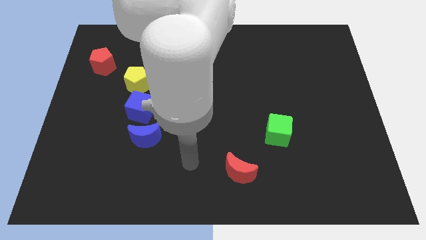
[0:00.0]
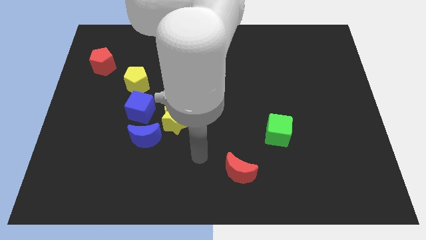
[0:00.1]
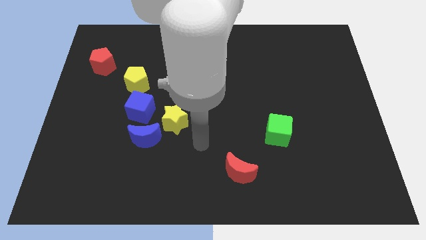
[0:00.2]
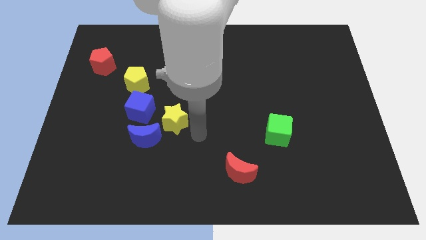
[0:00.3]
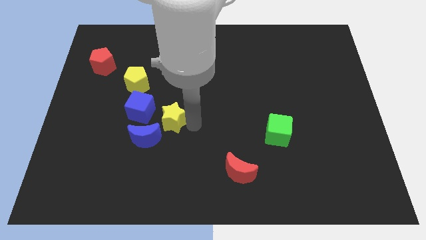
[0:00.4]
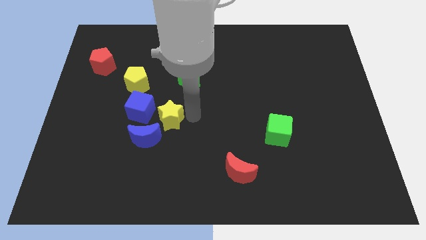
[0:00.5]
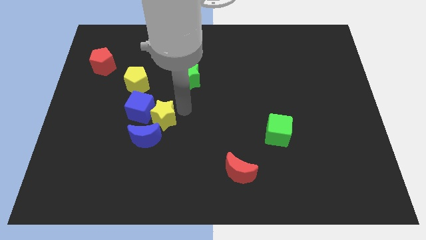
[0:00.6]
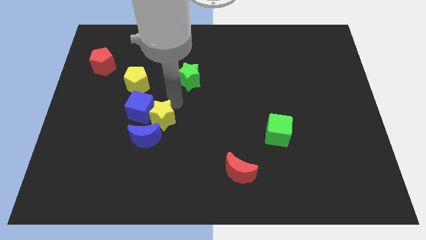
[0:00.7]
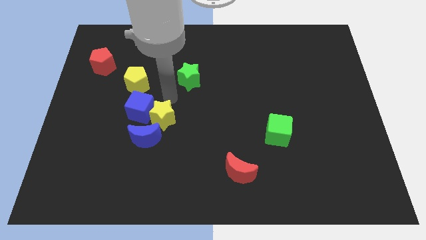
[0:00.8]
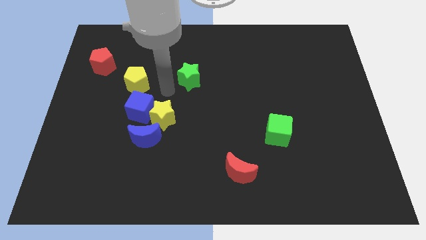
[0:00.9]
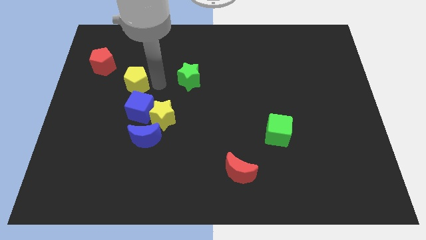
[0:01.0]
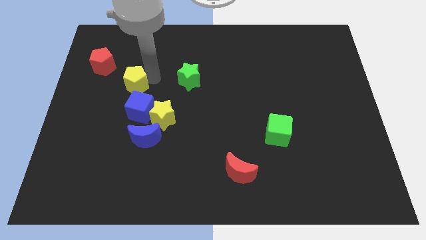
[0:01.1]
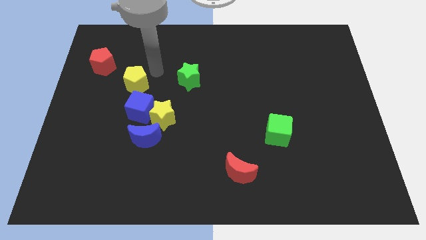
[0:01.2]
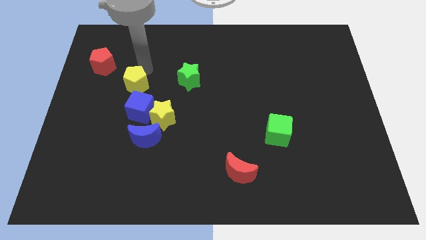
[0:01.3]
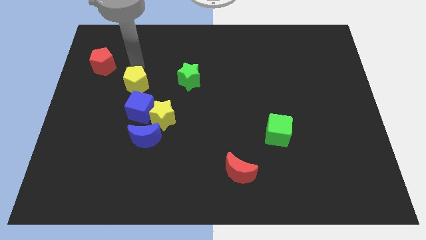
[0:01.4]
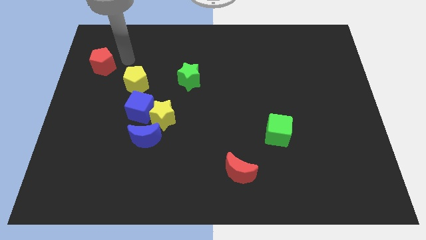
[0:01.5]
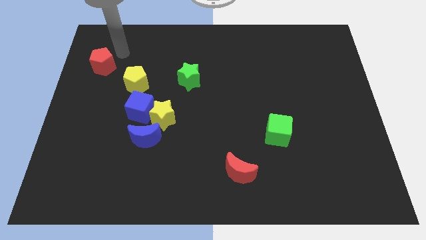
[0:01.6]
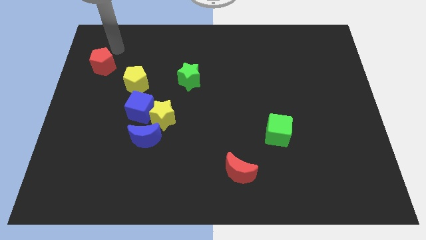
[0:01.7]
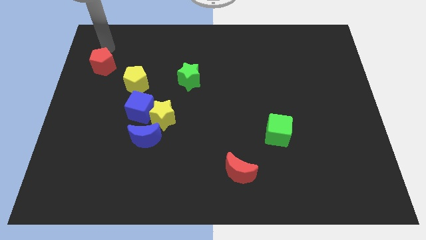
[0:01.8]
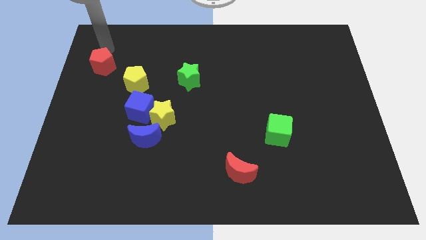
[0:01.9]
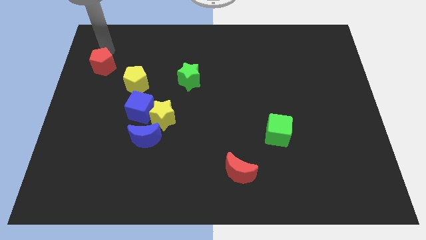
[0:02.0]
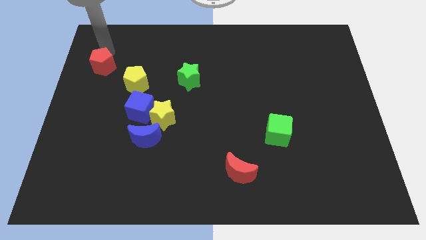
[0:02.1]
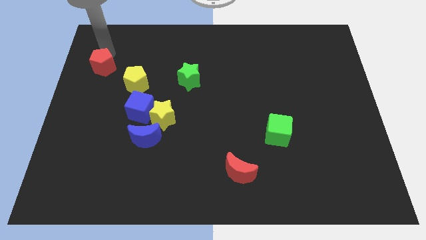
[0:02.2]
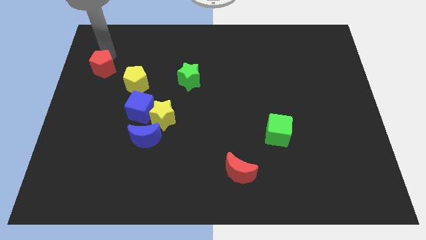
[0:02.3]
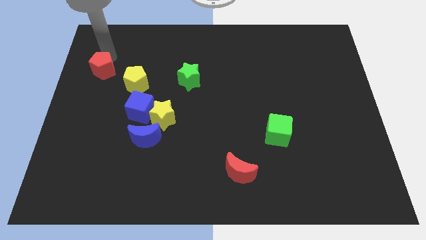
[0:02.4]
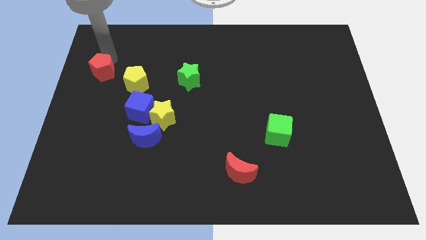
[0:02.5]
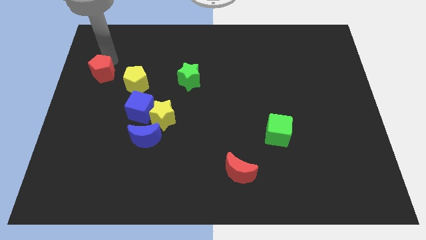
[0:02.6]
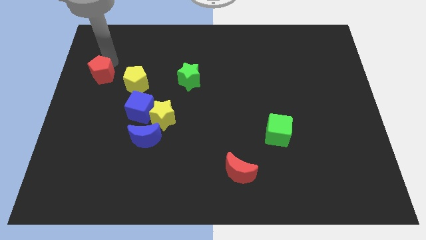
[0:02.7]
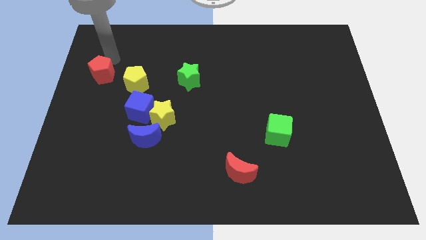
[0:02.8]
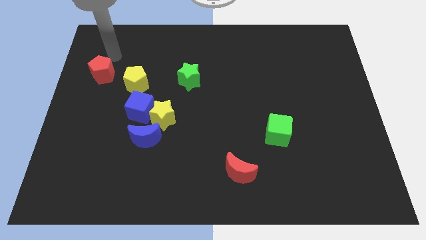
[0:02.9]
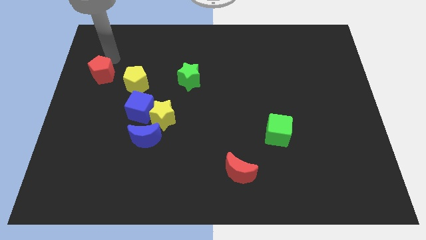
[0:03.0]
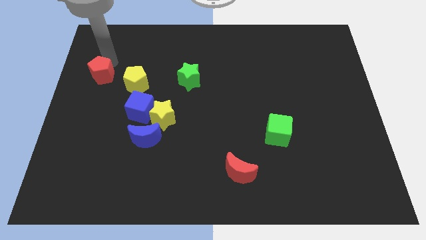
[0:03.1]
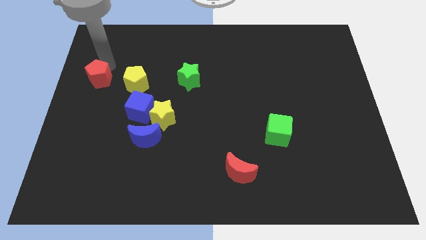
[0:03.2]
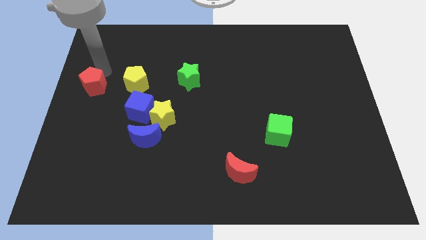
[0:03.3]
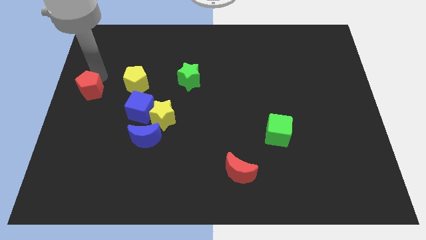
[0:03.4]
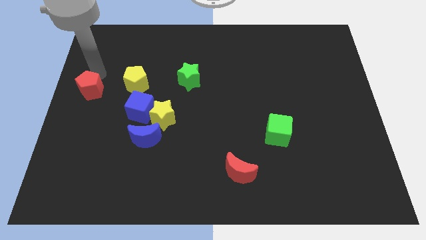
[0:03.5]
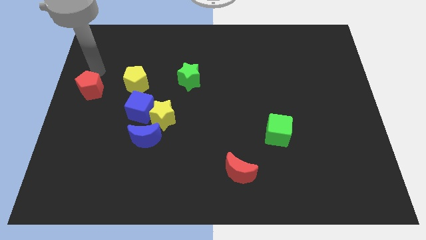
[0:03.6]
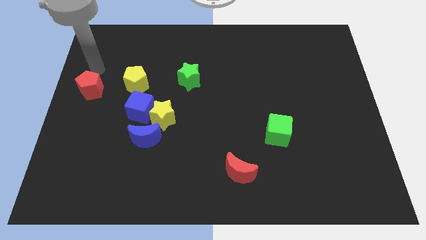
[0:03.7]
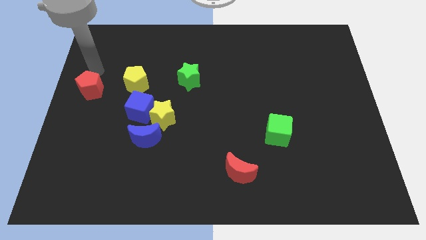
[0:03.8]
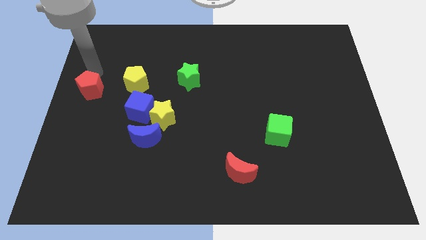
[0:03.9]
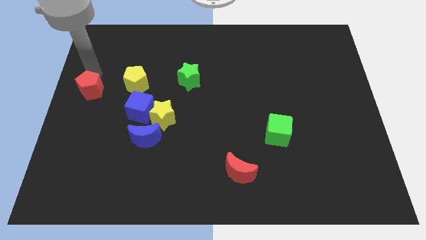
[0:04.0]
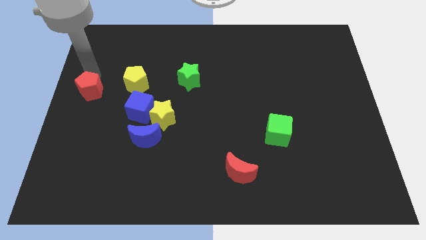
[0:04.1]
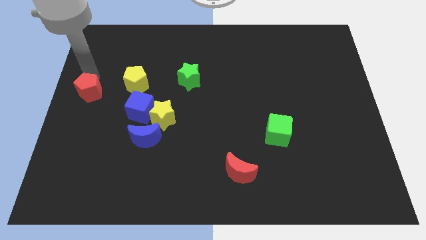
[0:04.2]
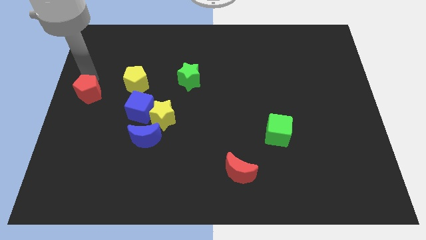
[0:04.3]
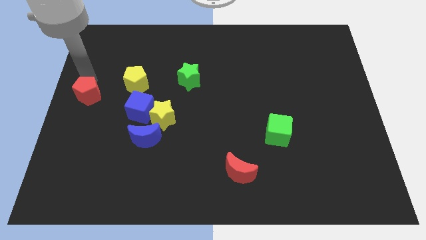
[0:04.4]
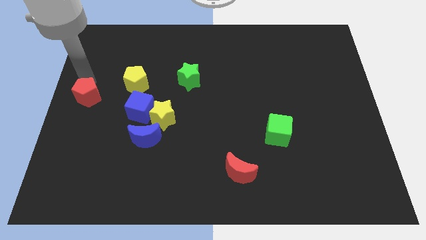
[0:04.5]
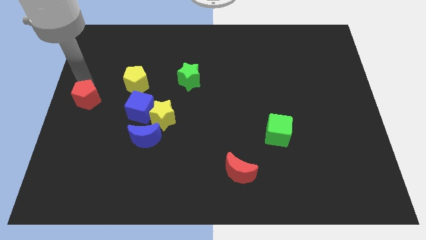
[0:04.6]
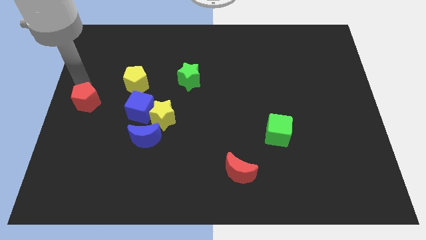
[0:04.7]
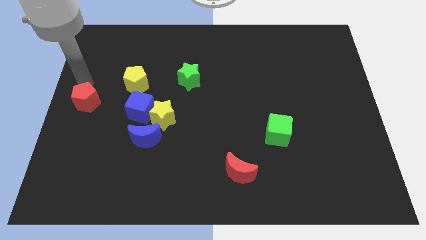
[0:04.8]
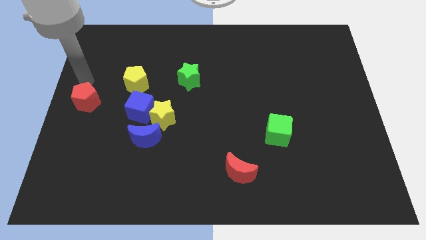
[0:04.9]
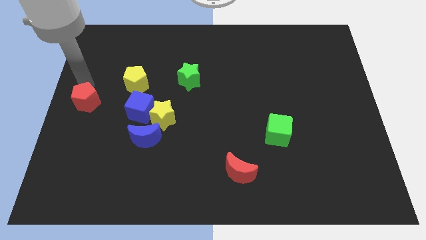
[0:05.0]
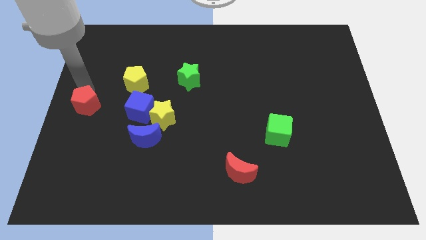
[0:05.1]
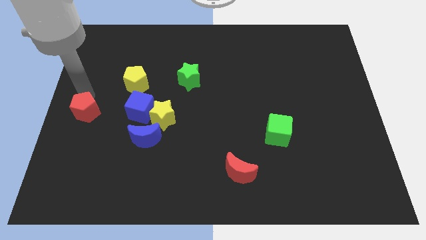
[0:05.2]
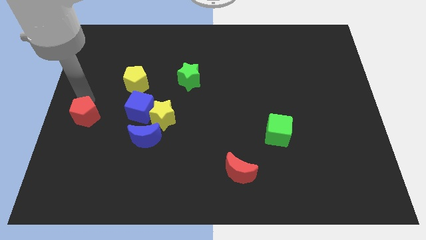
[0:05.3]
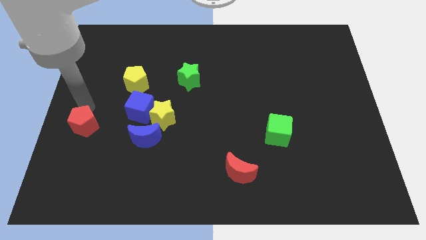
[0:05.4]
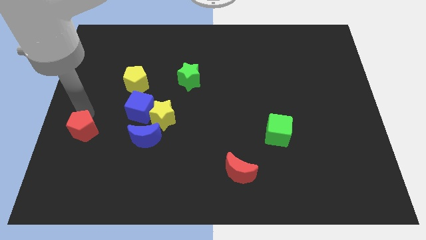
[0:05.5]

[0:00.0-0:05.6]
move the red pentagon down

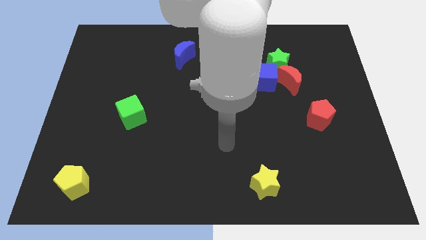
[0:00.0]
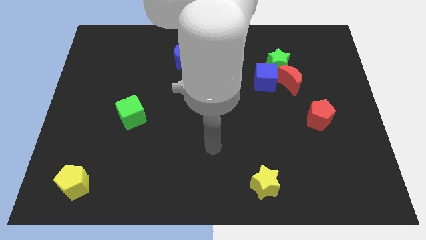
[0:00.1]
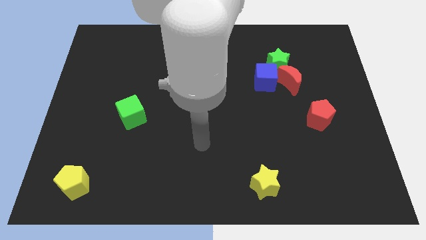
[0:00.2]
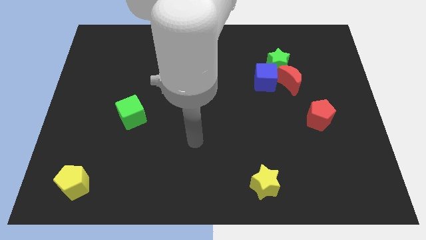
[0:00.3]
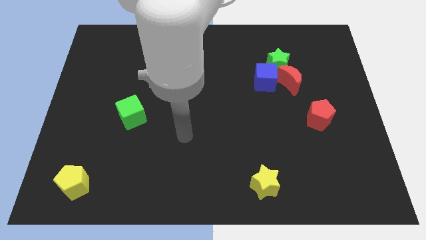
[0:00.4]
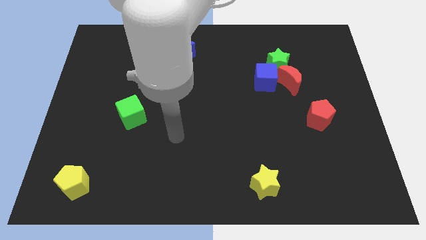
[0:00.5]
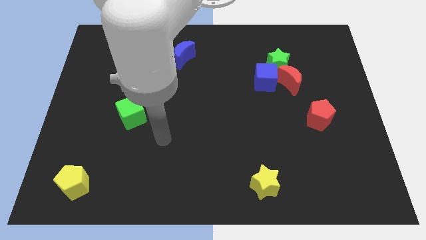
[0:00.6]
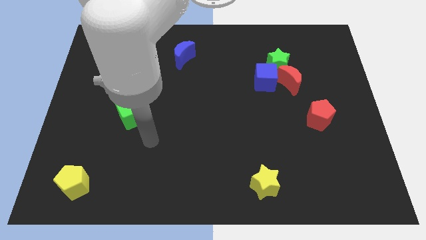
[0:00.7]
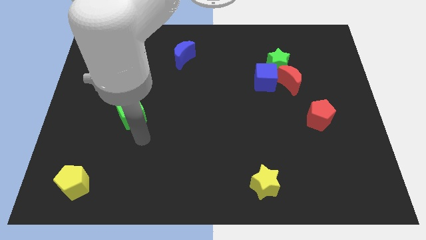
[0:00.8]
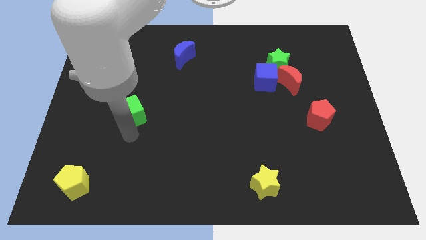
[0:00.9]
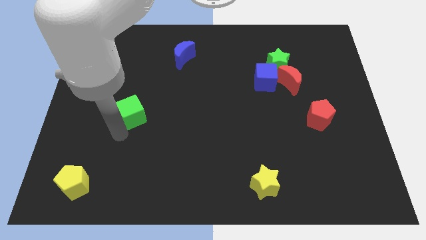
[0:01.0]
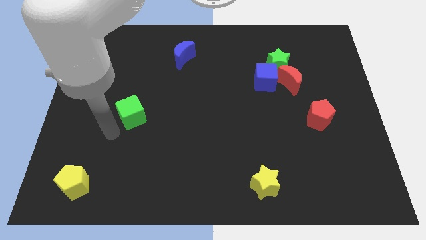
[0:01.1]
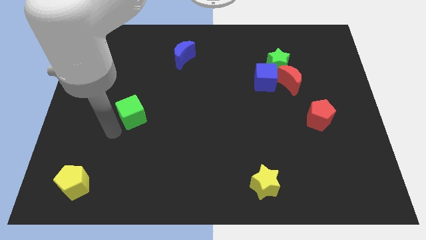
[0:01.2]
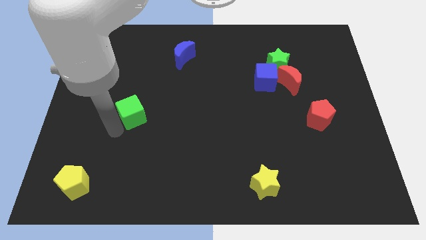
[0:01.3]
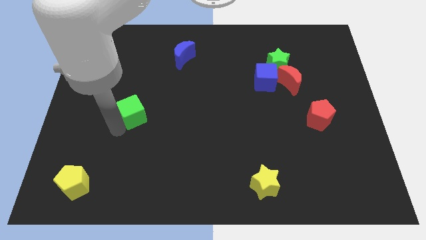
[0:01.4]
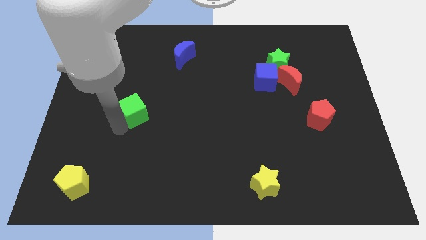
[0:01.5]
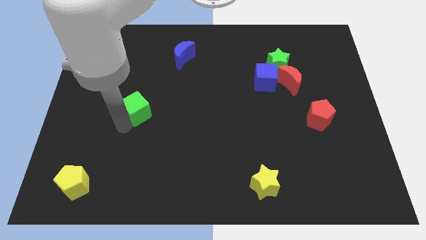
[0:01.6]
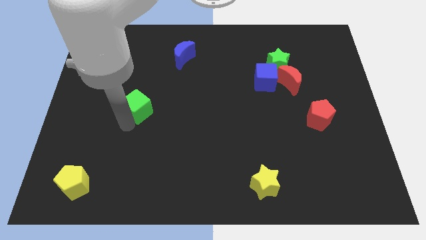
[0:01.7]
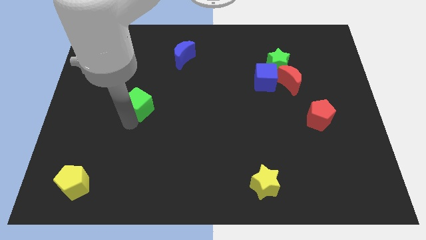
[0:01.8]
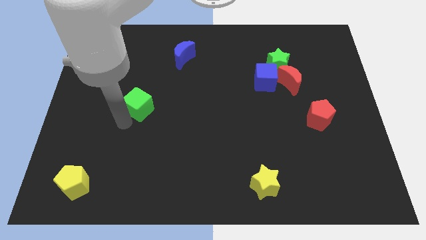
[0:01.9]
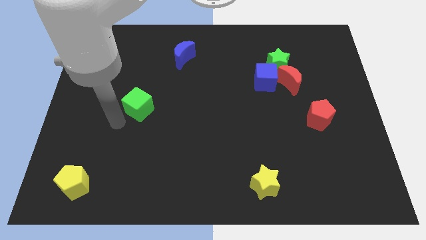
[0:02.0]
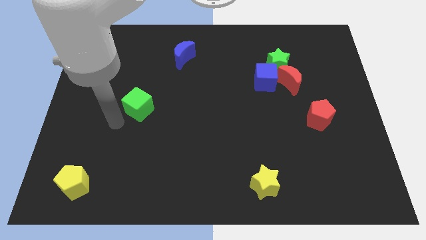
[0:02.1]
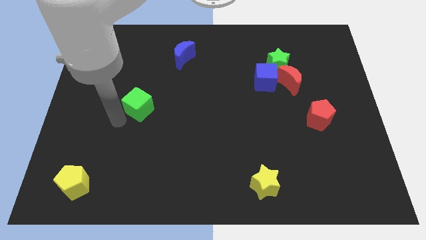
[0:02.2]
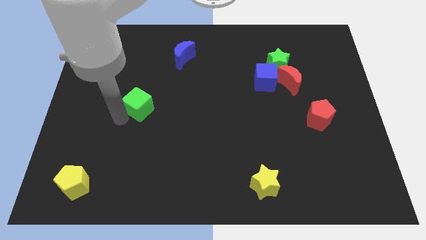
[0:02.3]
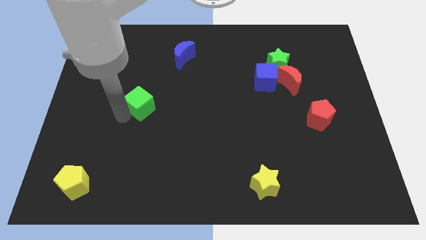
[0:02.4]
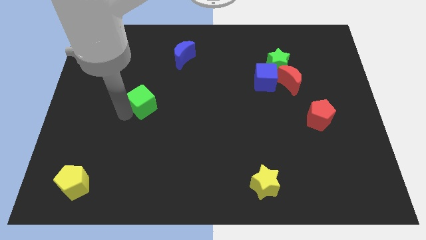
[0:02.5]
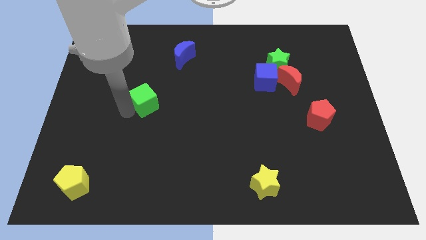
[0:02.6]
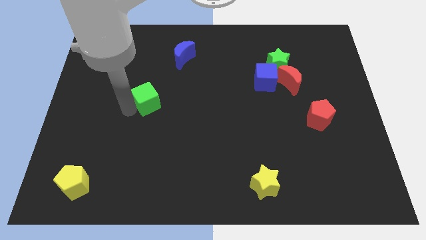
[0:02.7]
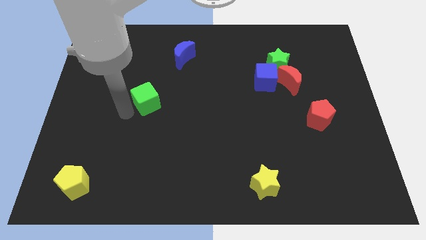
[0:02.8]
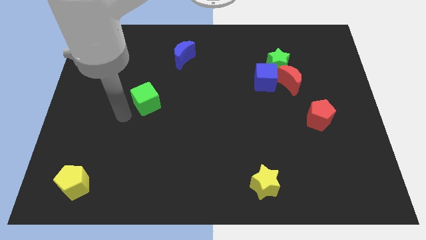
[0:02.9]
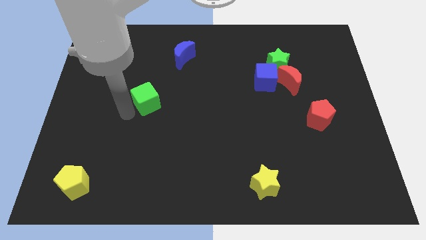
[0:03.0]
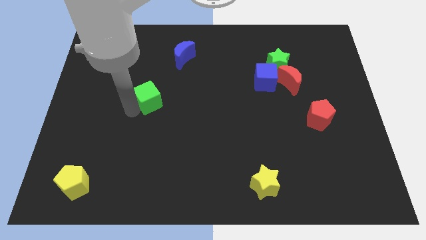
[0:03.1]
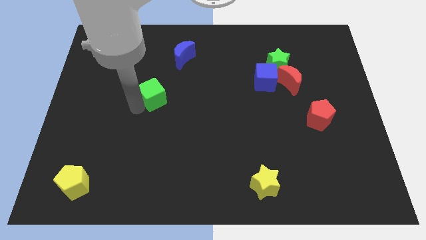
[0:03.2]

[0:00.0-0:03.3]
slide the green cube slightly diagonally up and to the right
